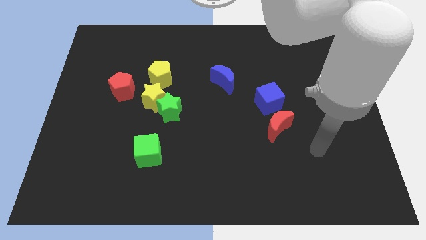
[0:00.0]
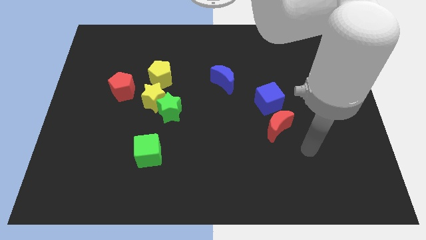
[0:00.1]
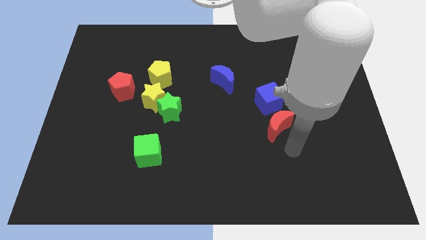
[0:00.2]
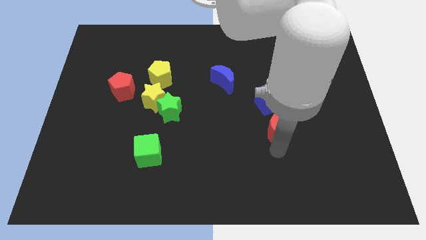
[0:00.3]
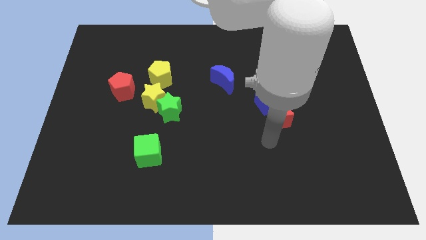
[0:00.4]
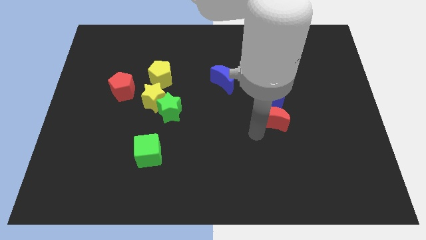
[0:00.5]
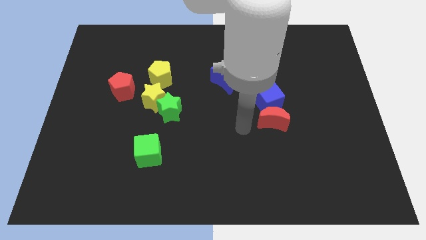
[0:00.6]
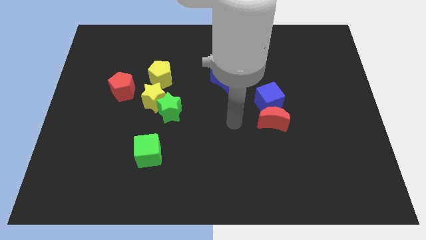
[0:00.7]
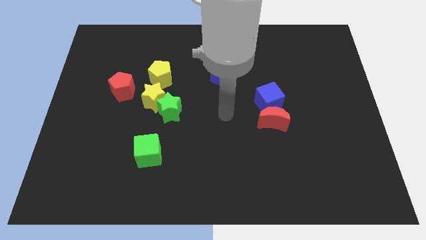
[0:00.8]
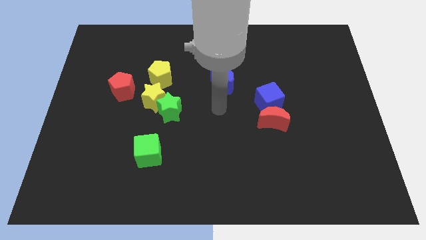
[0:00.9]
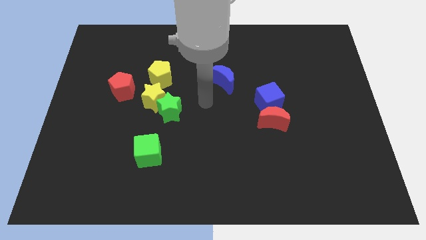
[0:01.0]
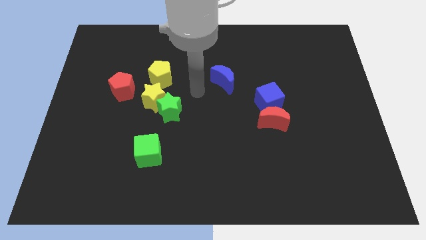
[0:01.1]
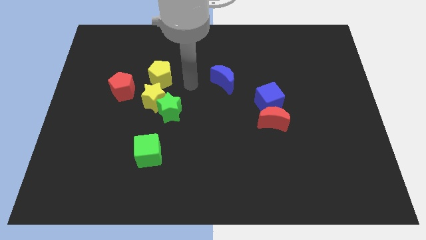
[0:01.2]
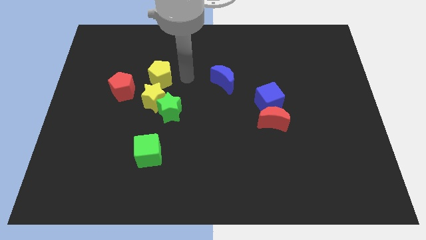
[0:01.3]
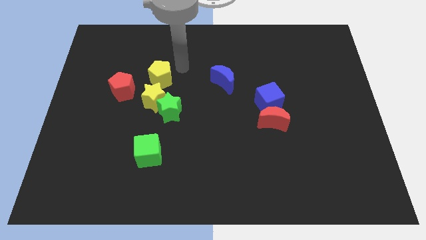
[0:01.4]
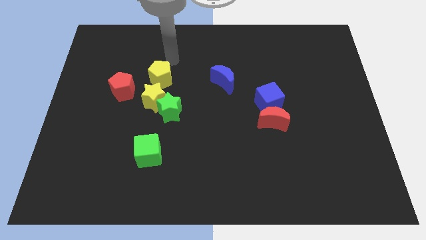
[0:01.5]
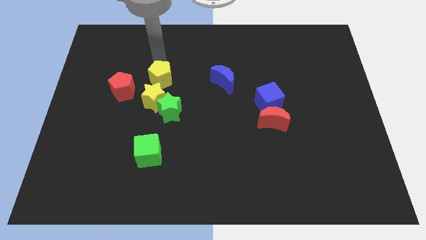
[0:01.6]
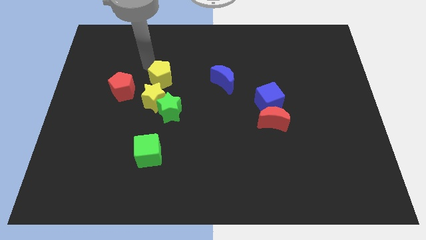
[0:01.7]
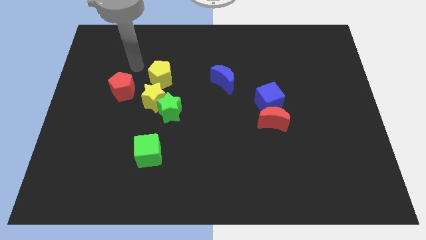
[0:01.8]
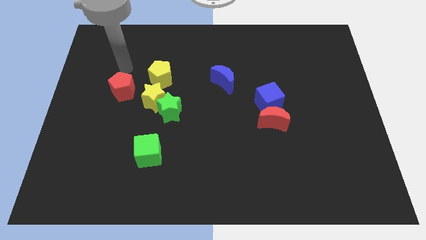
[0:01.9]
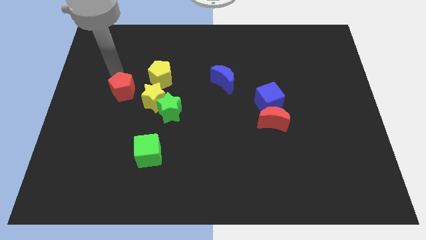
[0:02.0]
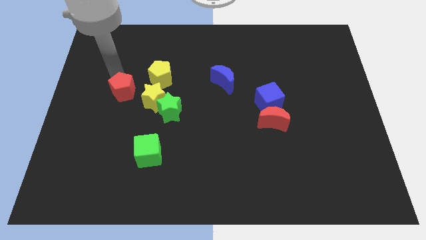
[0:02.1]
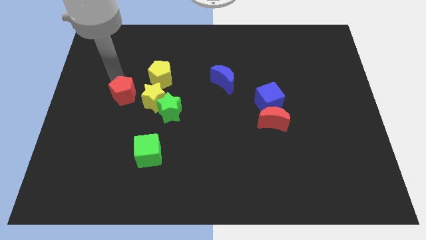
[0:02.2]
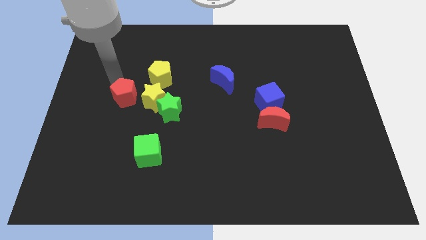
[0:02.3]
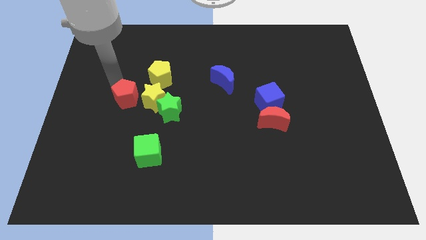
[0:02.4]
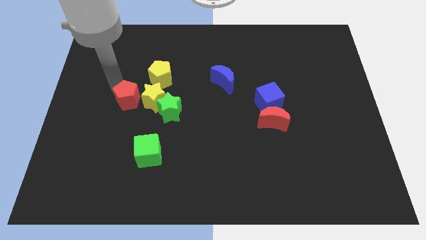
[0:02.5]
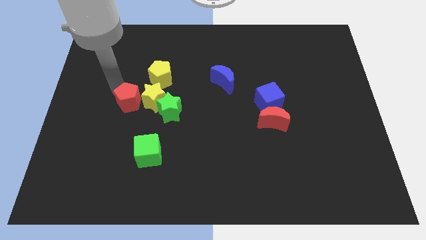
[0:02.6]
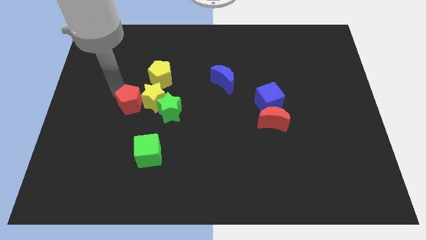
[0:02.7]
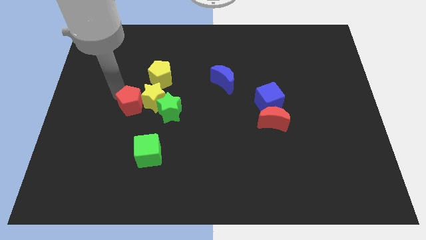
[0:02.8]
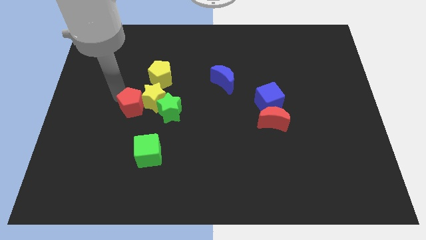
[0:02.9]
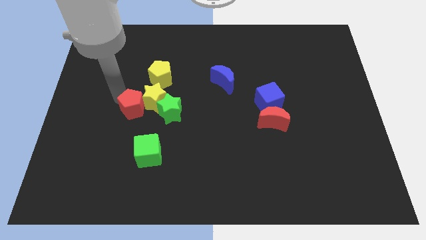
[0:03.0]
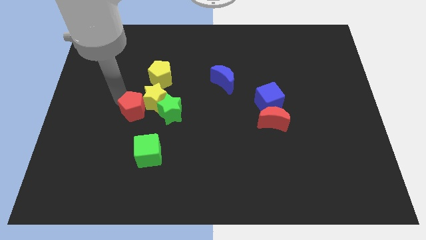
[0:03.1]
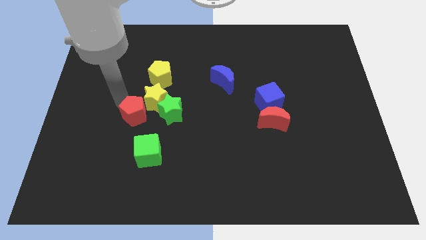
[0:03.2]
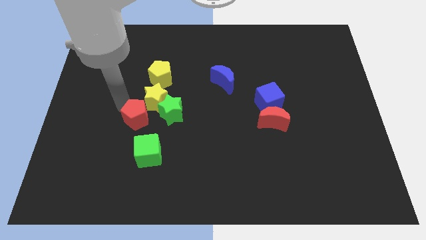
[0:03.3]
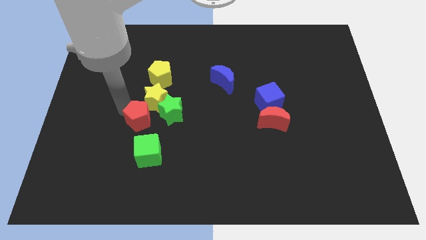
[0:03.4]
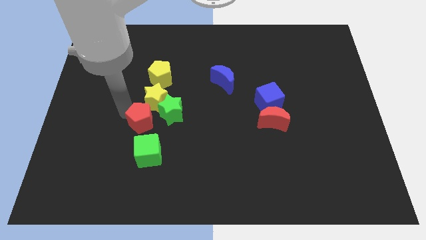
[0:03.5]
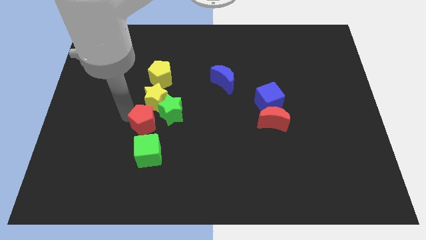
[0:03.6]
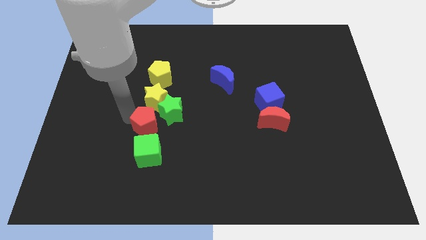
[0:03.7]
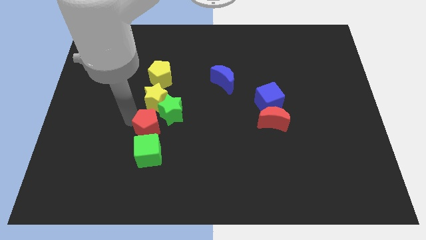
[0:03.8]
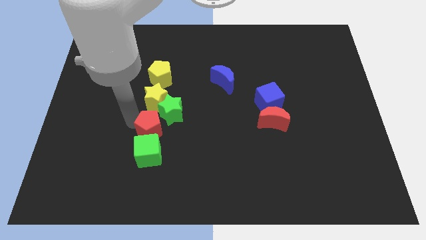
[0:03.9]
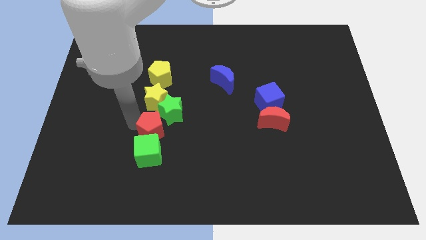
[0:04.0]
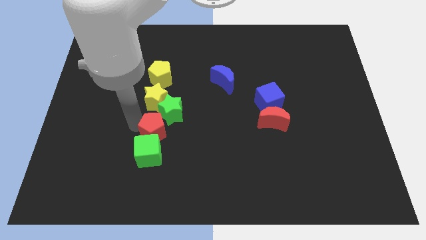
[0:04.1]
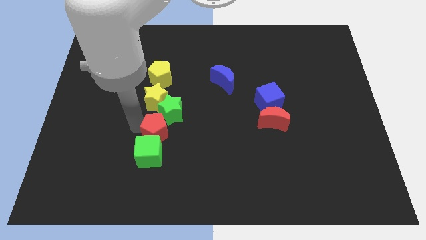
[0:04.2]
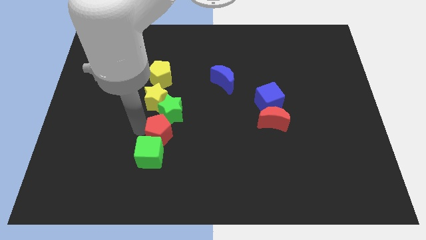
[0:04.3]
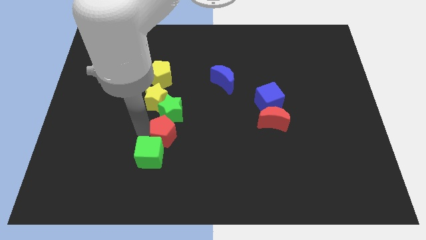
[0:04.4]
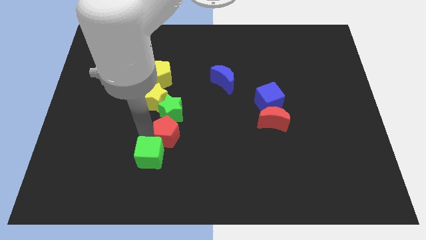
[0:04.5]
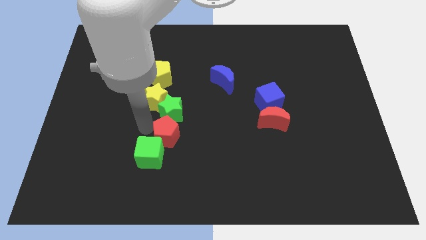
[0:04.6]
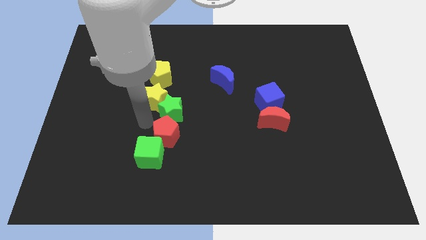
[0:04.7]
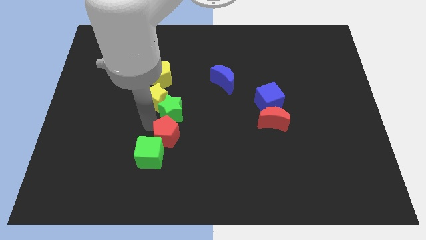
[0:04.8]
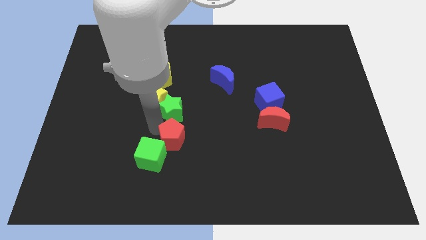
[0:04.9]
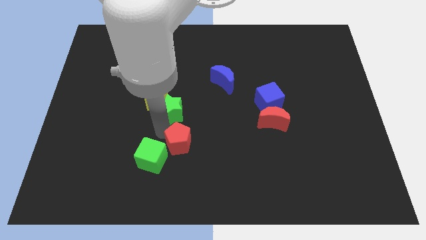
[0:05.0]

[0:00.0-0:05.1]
push the red pentagon down and then to the right

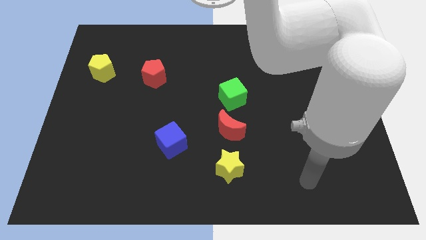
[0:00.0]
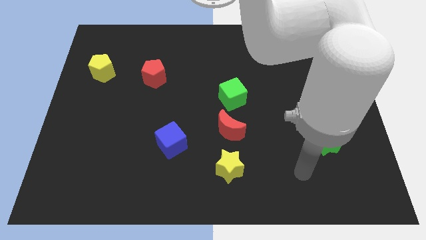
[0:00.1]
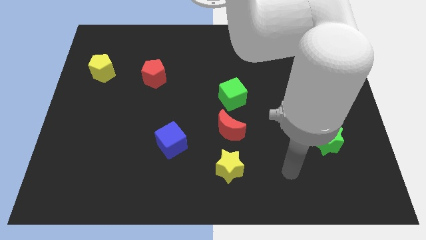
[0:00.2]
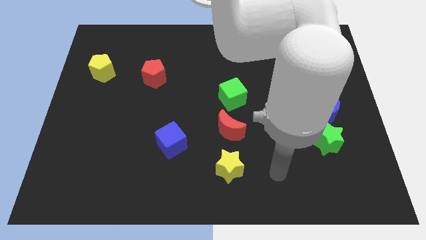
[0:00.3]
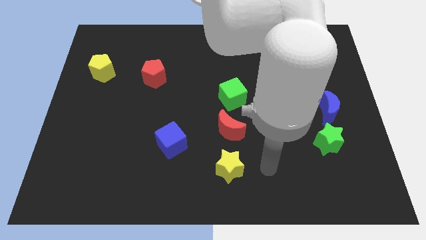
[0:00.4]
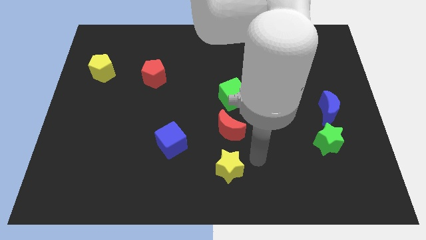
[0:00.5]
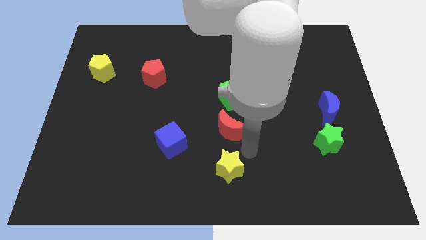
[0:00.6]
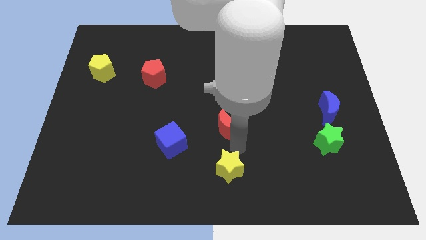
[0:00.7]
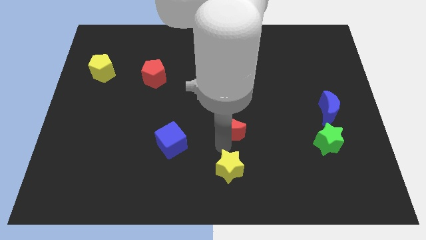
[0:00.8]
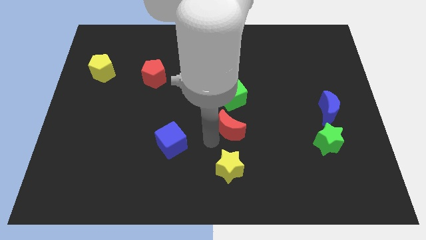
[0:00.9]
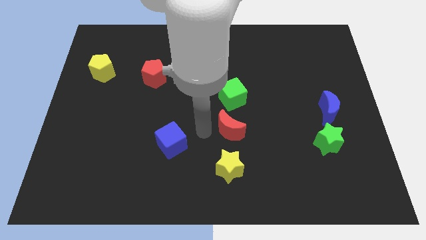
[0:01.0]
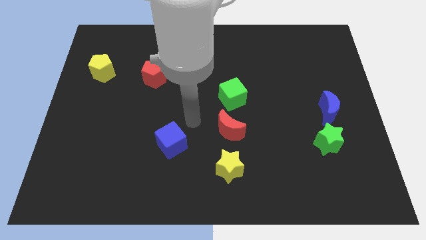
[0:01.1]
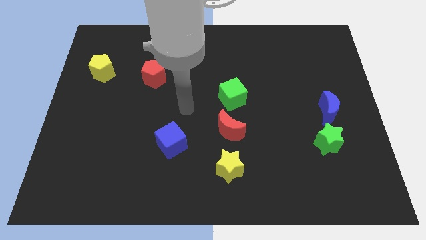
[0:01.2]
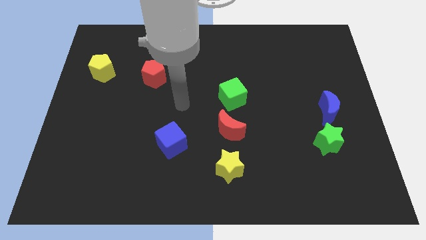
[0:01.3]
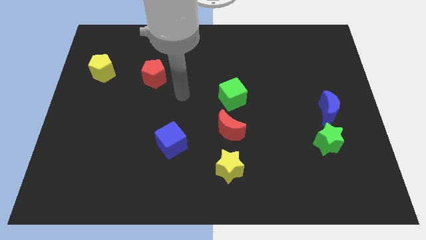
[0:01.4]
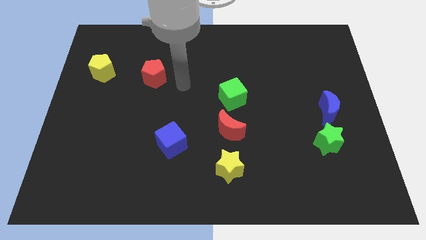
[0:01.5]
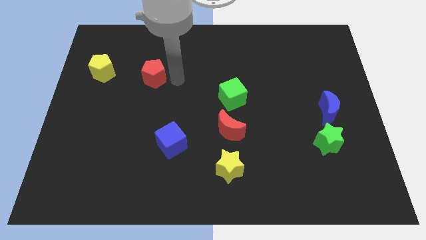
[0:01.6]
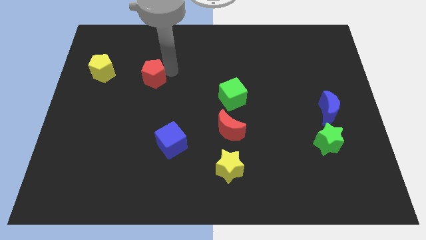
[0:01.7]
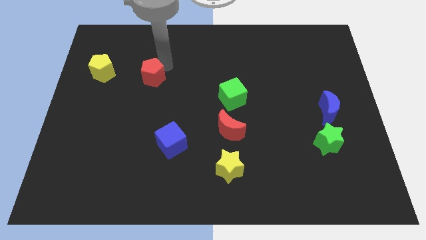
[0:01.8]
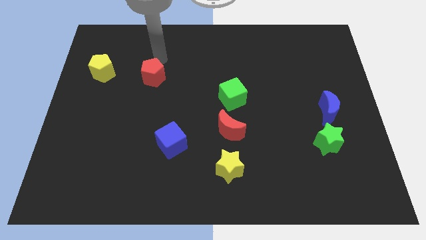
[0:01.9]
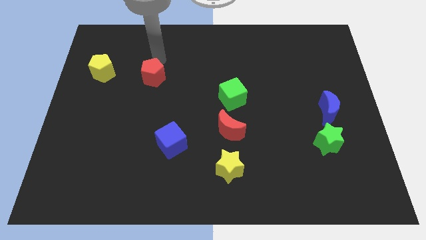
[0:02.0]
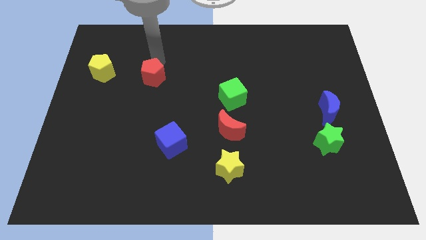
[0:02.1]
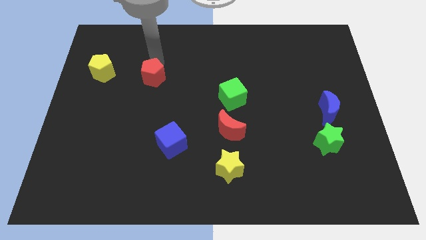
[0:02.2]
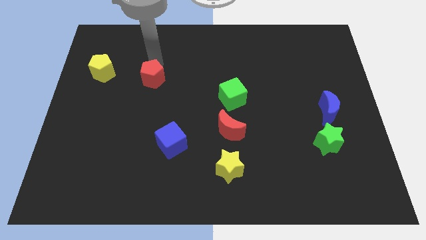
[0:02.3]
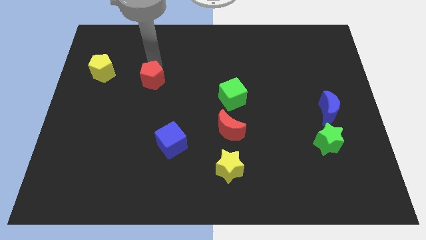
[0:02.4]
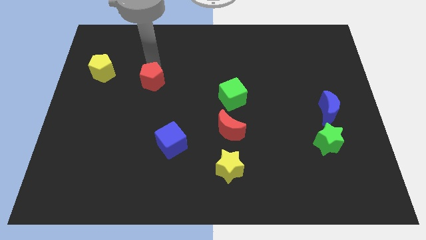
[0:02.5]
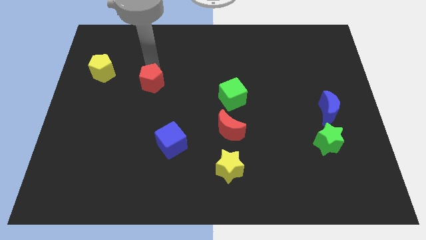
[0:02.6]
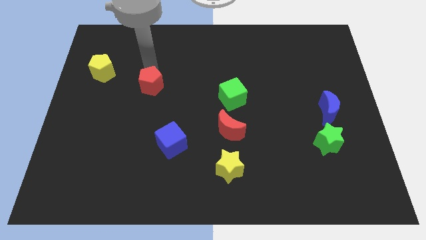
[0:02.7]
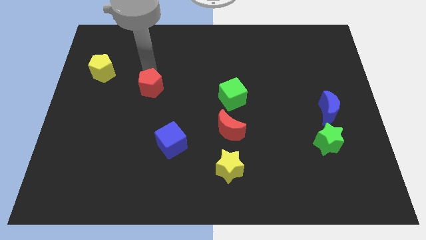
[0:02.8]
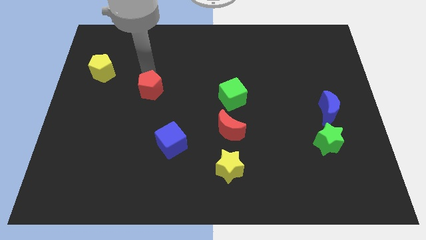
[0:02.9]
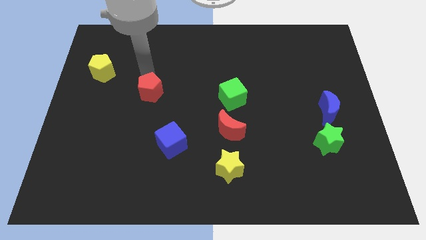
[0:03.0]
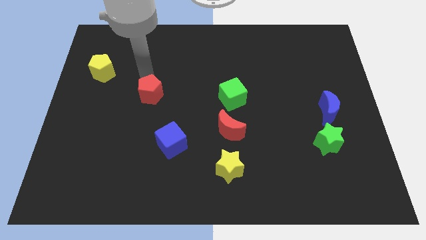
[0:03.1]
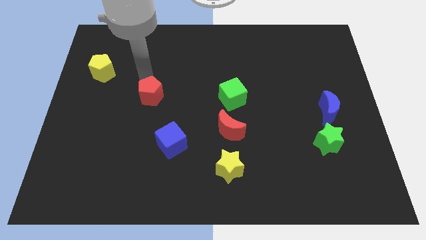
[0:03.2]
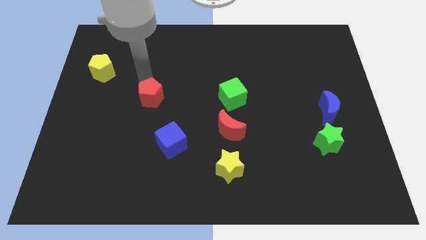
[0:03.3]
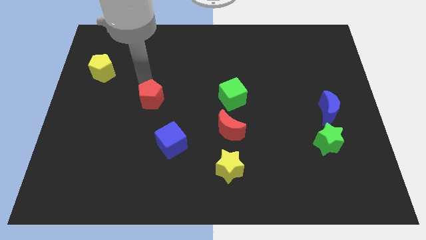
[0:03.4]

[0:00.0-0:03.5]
slightly push the red pentagon downwards
